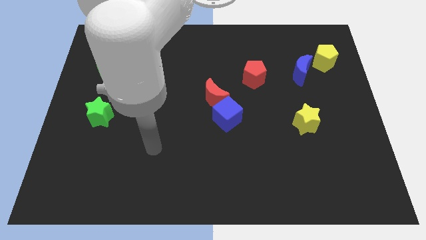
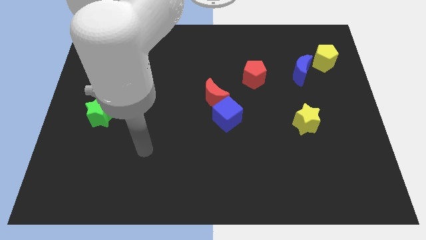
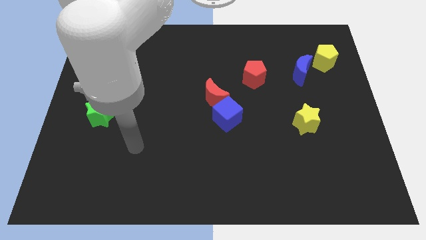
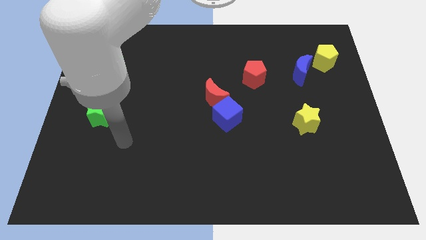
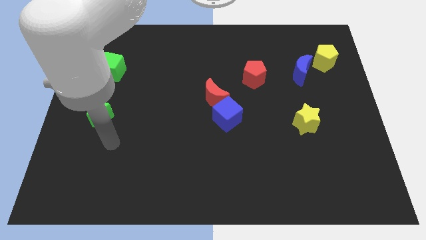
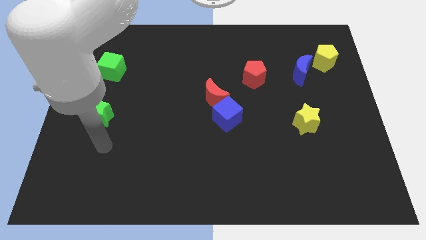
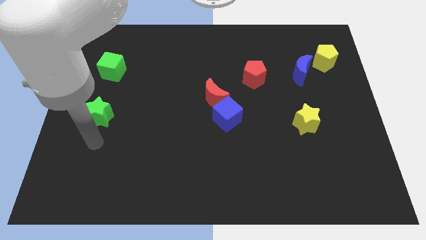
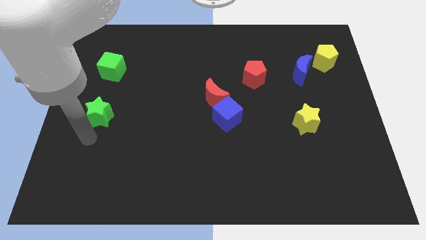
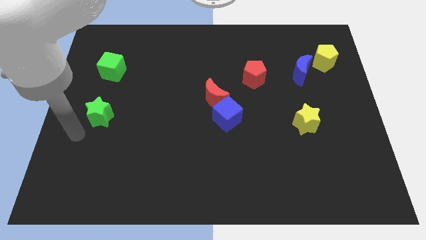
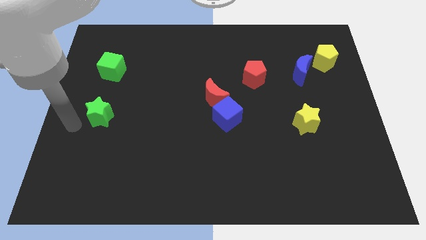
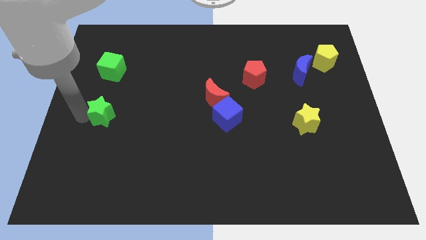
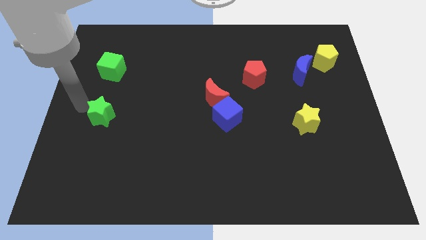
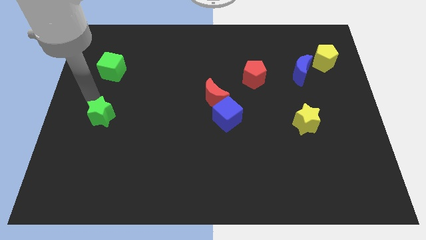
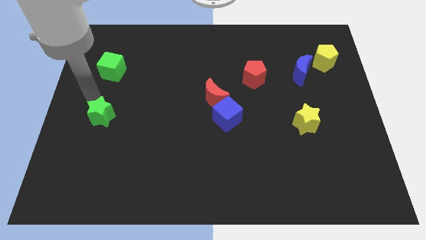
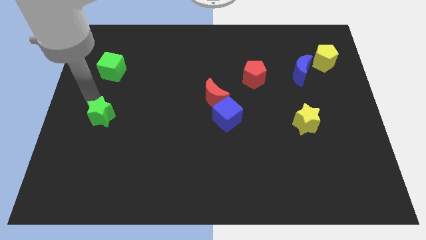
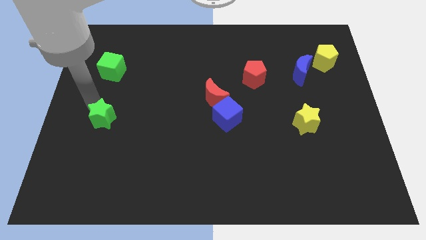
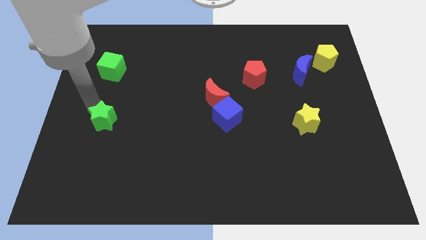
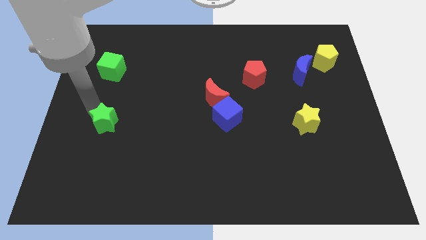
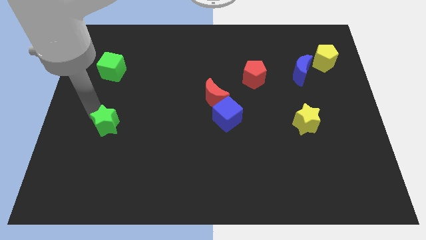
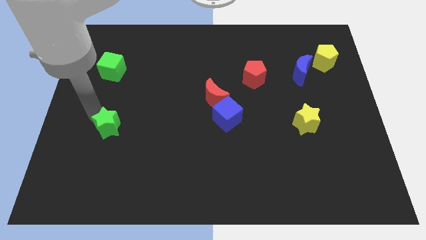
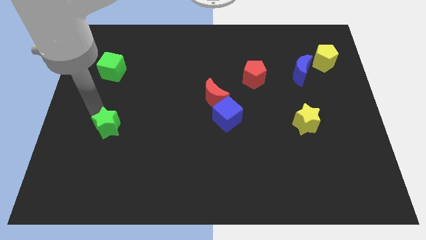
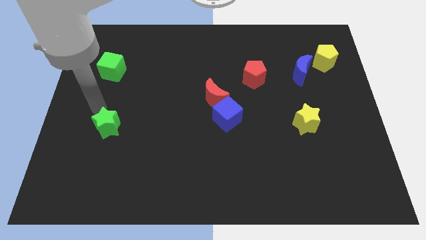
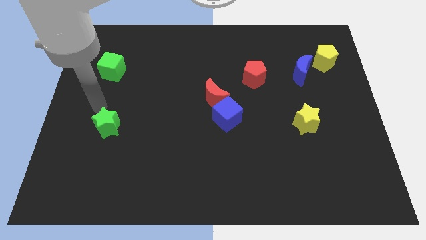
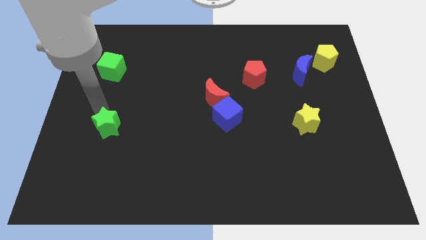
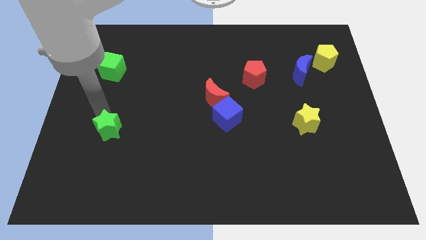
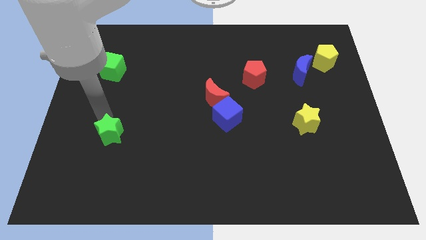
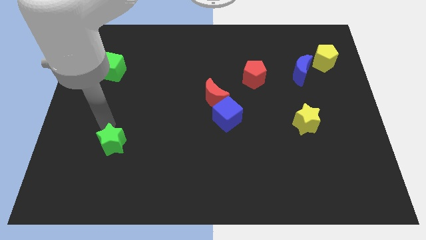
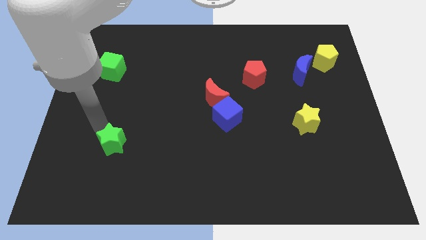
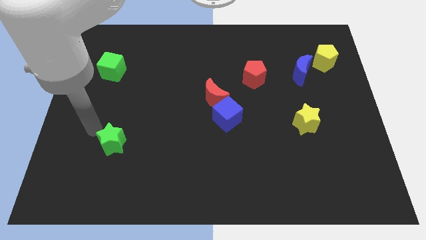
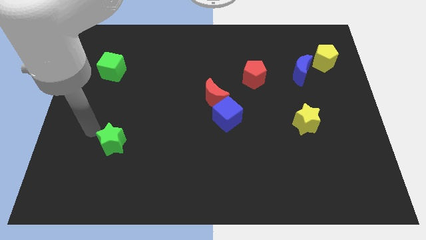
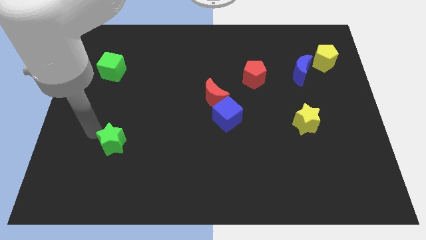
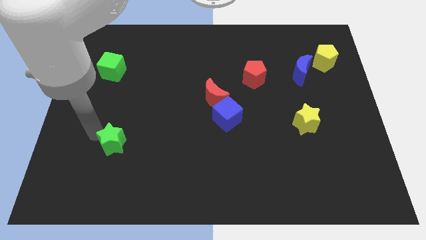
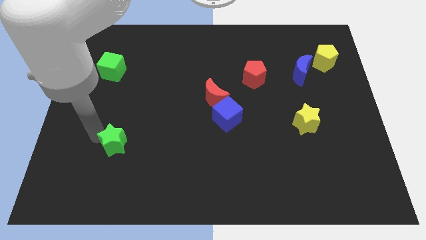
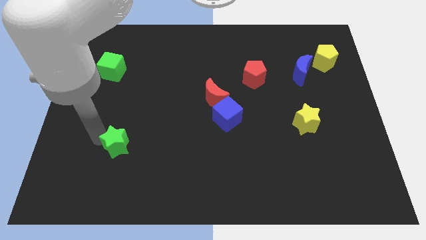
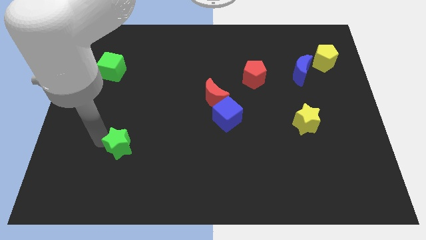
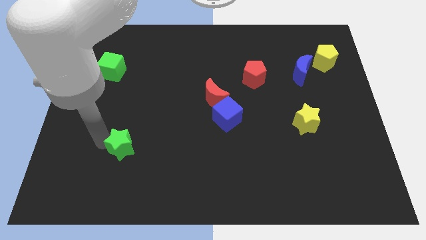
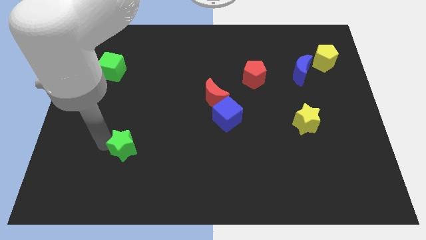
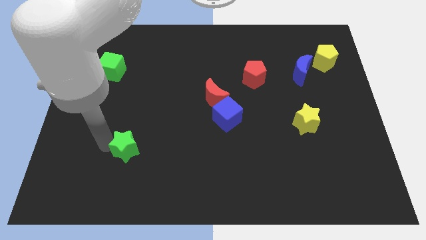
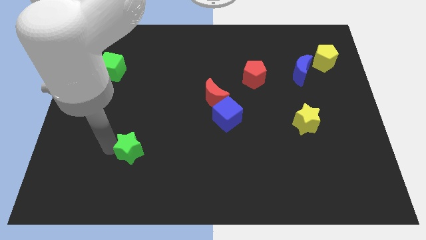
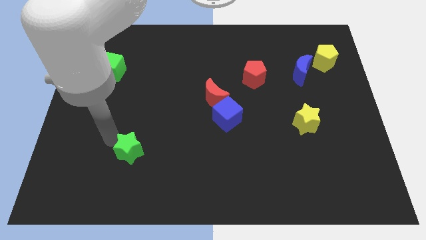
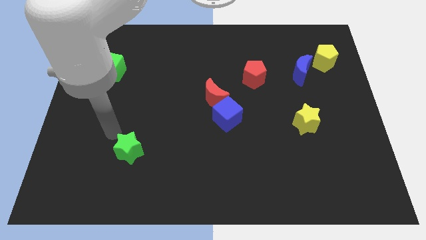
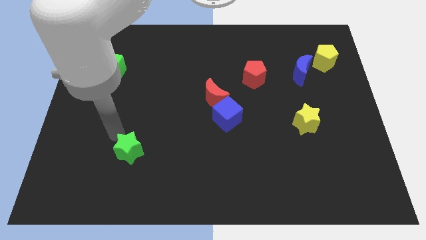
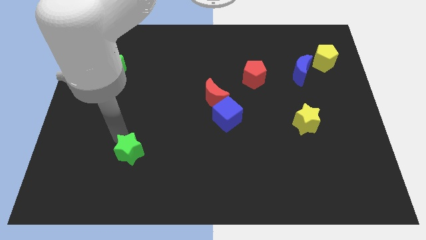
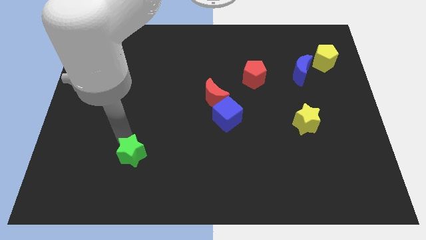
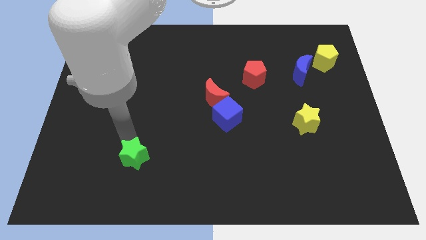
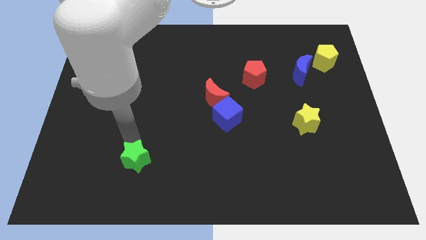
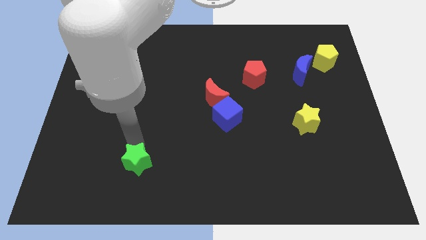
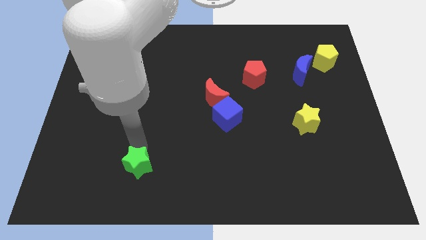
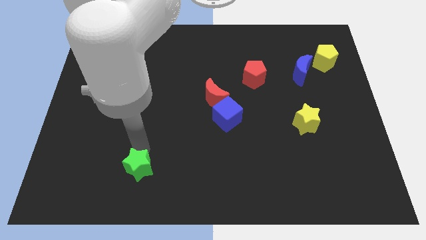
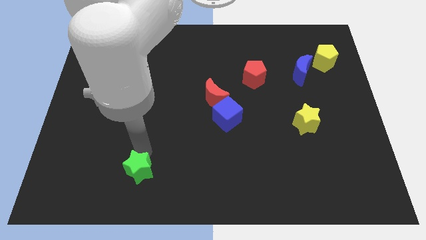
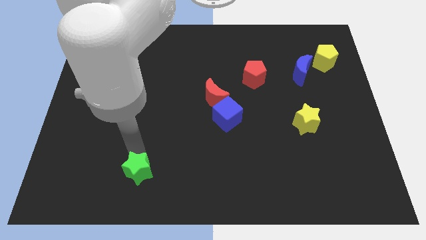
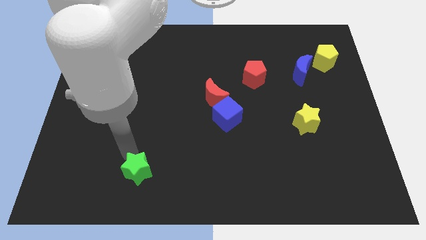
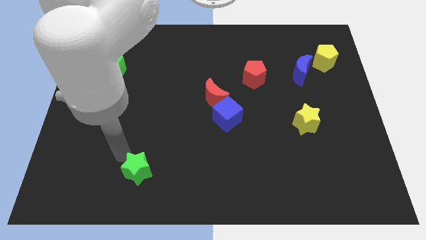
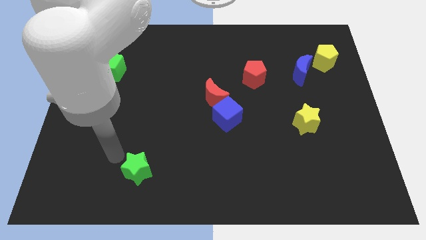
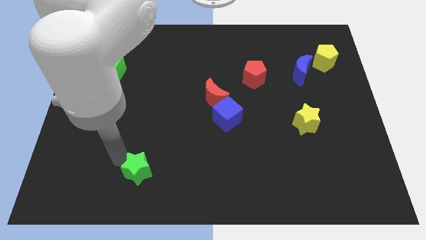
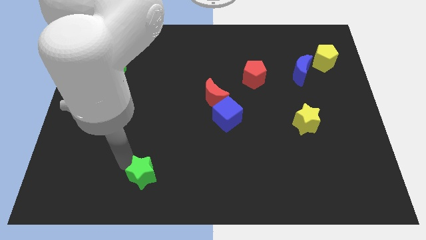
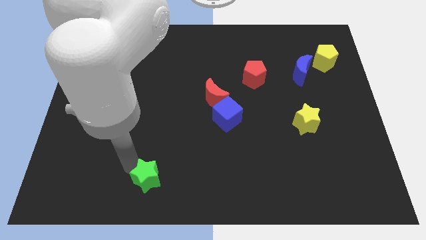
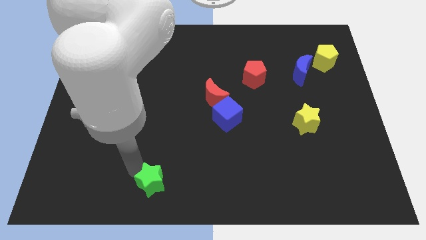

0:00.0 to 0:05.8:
push the green star to the bottom
